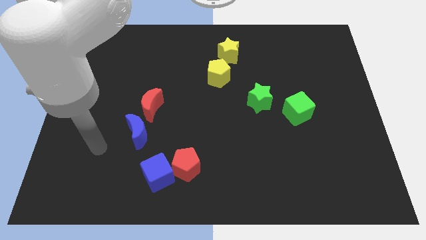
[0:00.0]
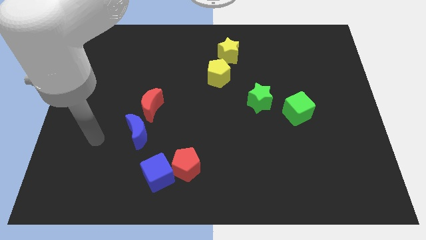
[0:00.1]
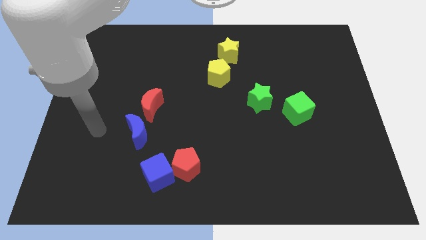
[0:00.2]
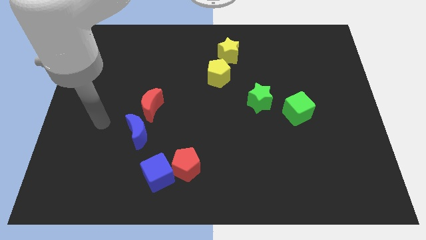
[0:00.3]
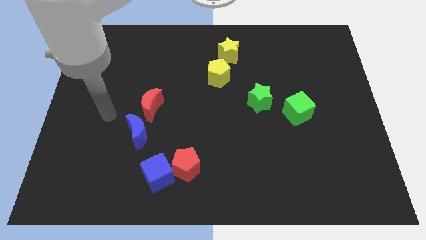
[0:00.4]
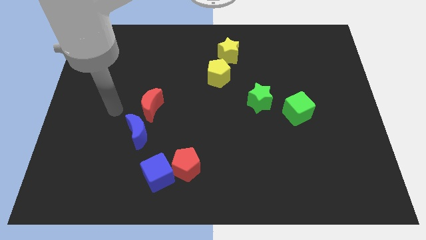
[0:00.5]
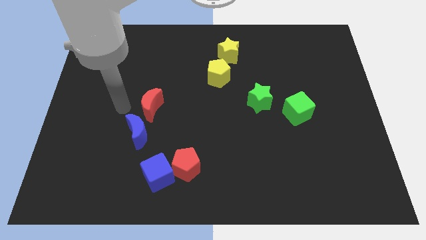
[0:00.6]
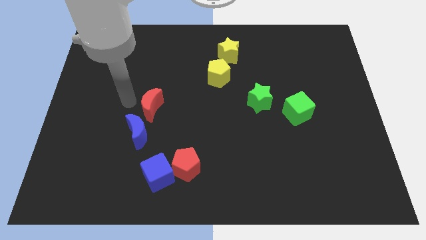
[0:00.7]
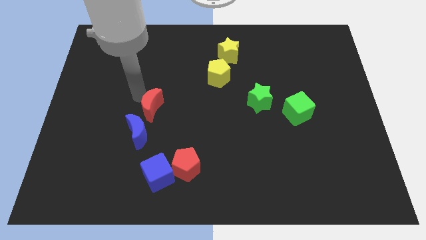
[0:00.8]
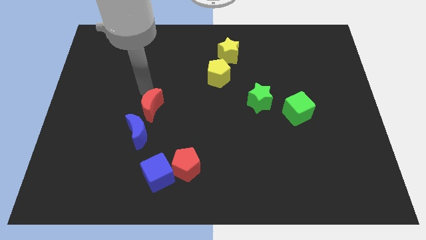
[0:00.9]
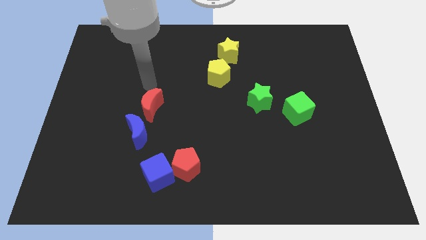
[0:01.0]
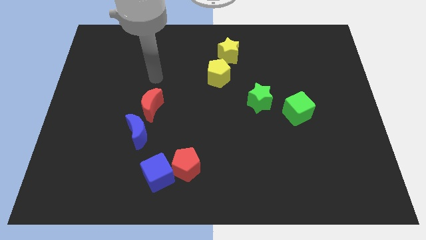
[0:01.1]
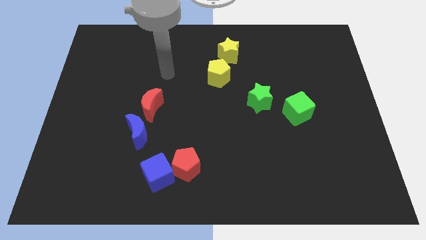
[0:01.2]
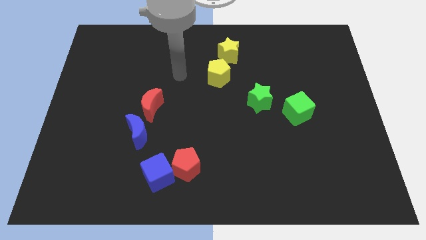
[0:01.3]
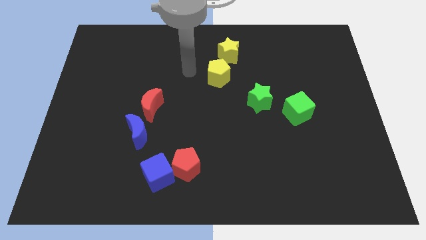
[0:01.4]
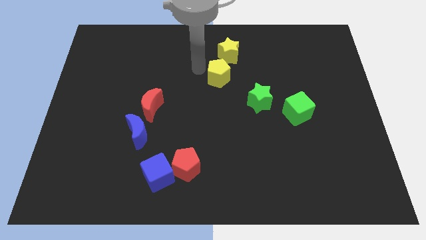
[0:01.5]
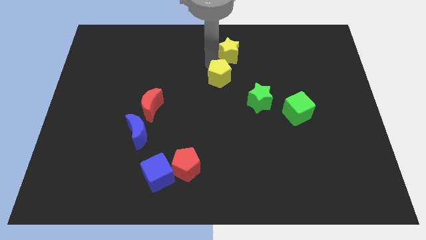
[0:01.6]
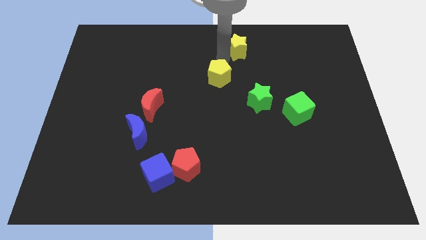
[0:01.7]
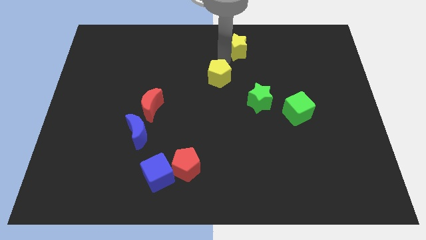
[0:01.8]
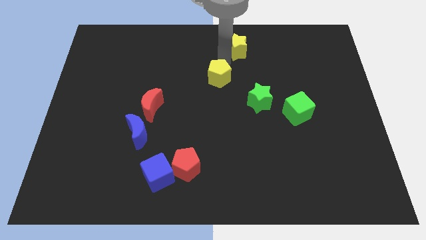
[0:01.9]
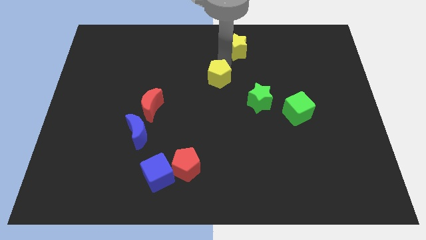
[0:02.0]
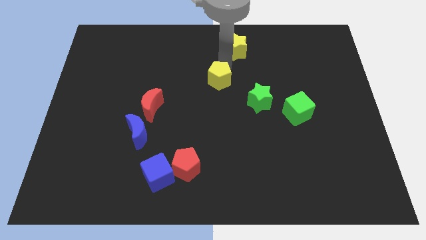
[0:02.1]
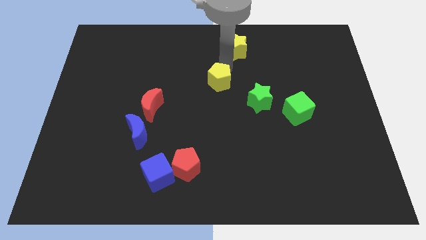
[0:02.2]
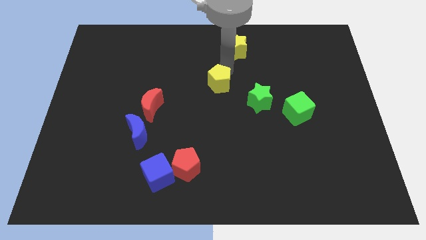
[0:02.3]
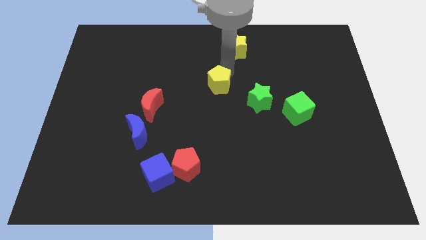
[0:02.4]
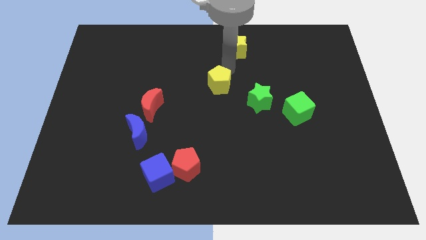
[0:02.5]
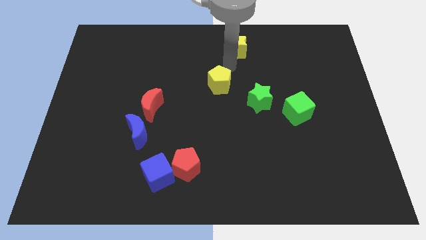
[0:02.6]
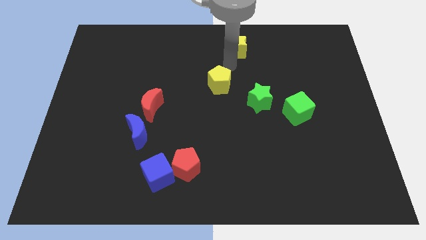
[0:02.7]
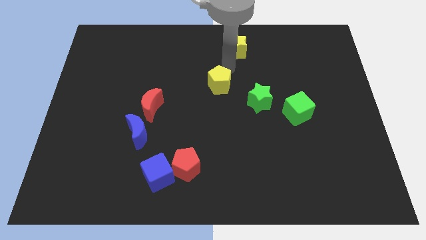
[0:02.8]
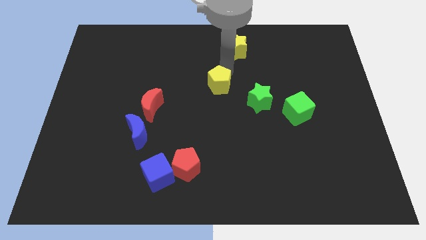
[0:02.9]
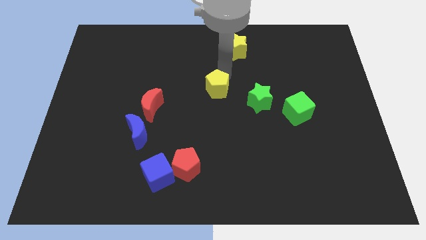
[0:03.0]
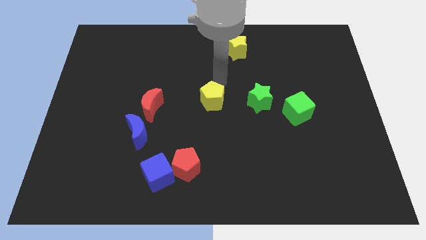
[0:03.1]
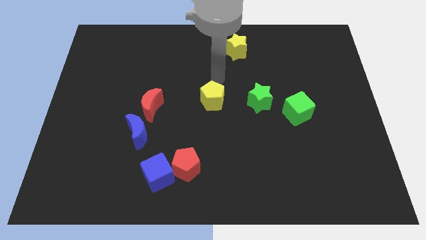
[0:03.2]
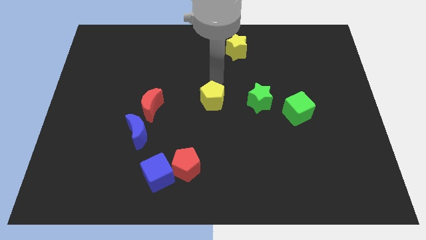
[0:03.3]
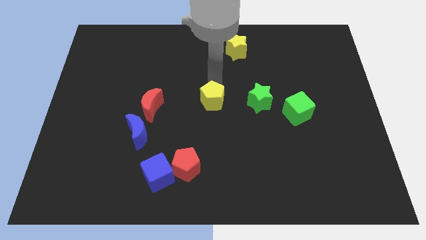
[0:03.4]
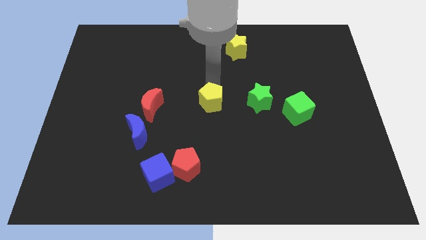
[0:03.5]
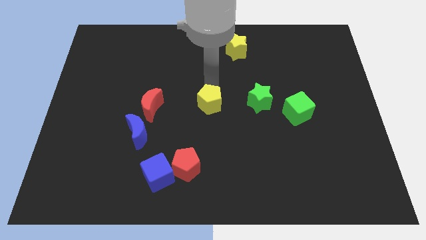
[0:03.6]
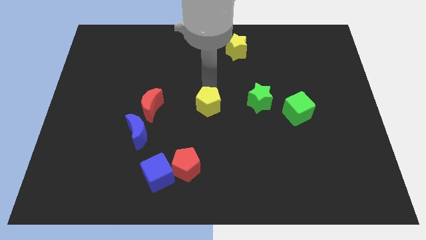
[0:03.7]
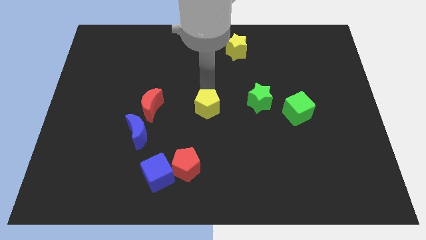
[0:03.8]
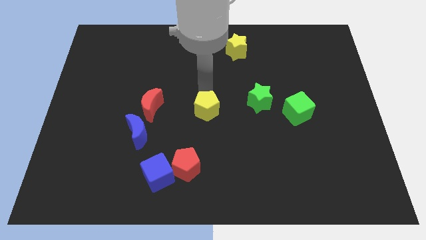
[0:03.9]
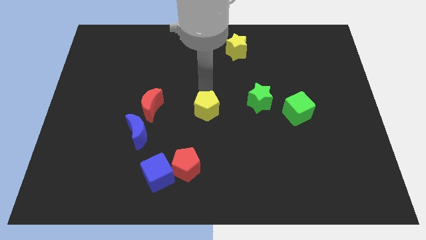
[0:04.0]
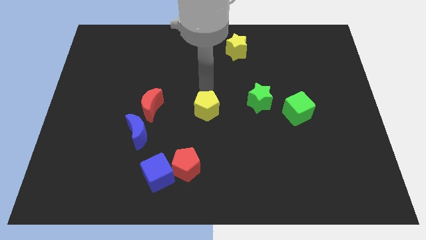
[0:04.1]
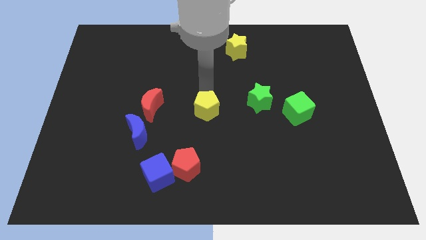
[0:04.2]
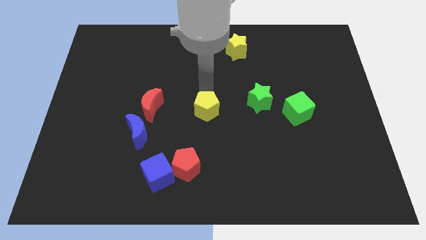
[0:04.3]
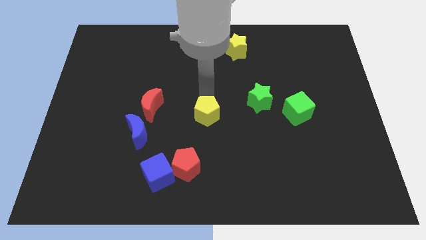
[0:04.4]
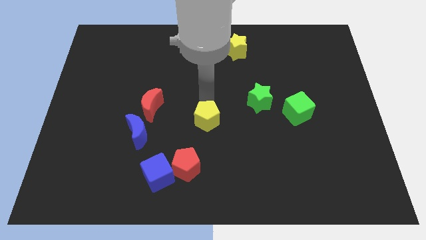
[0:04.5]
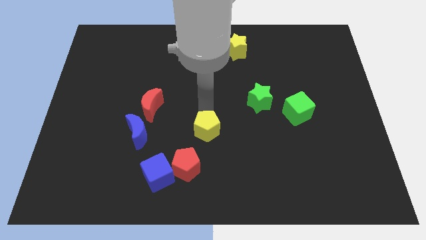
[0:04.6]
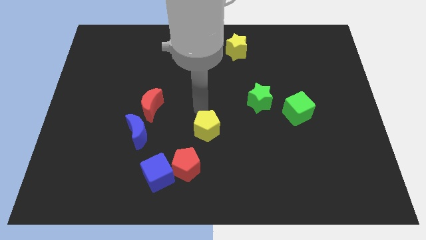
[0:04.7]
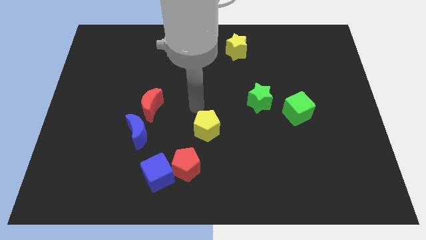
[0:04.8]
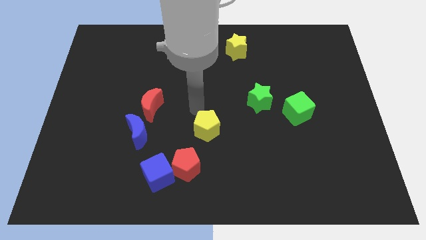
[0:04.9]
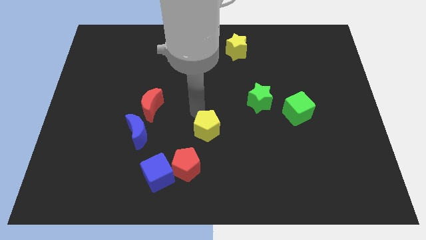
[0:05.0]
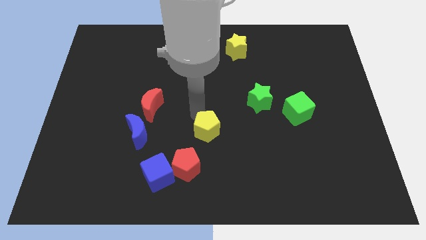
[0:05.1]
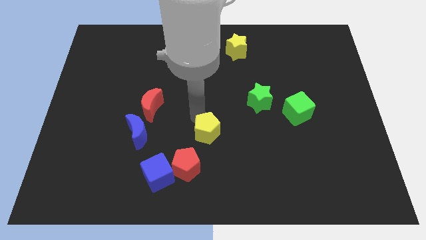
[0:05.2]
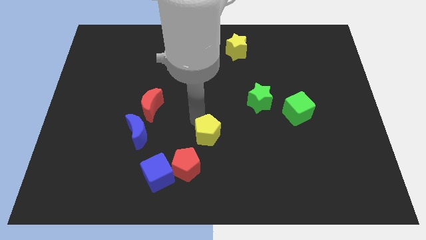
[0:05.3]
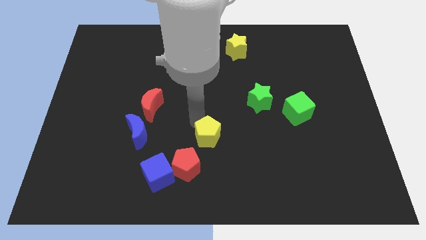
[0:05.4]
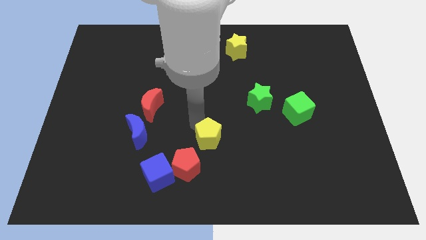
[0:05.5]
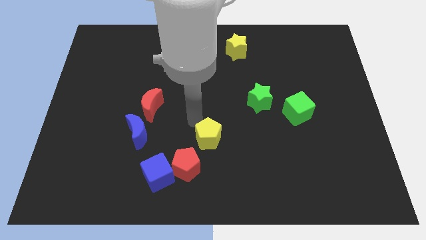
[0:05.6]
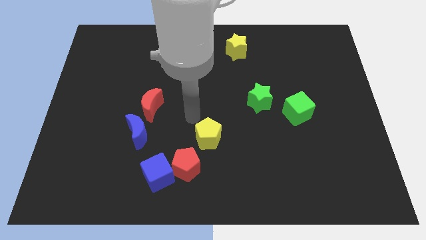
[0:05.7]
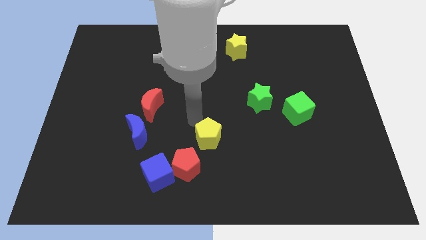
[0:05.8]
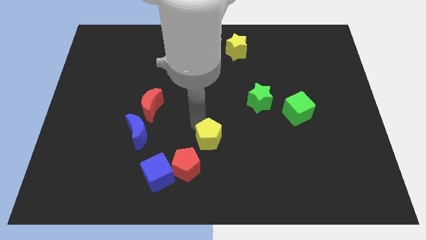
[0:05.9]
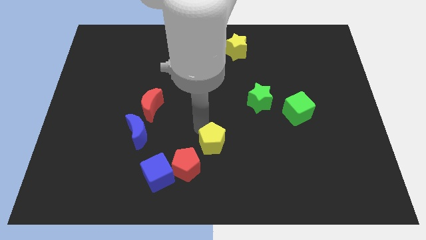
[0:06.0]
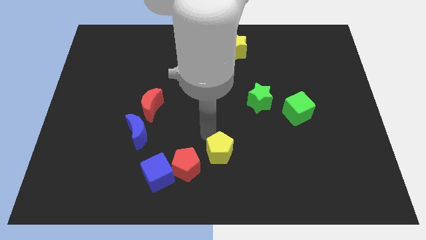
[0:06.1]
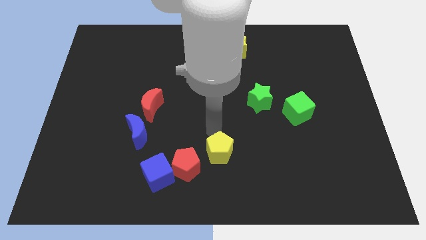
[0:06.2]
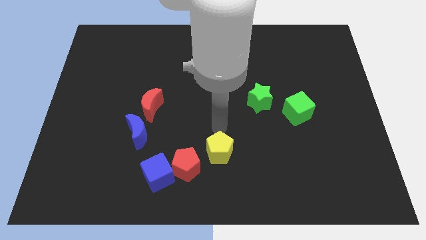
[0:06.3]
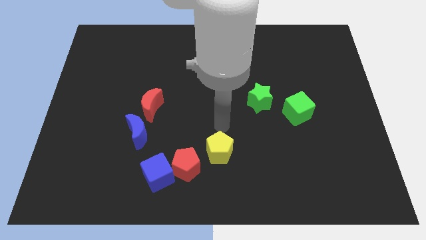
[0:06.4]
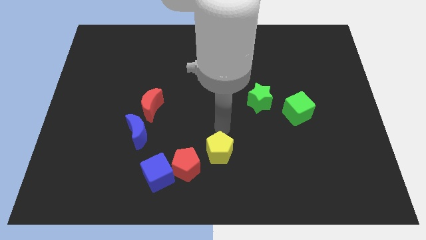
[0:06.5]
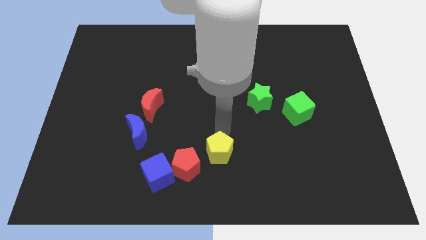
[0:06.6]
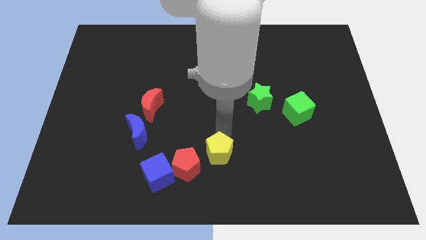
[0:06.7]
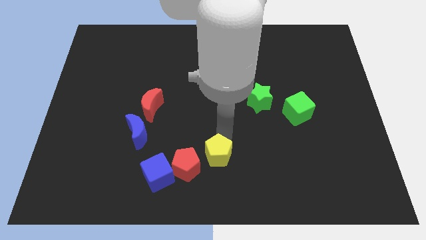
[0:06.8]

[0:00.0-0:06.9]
slide the yellow pentagon to the bottom
